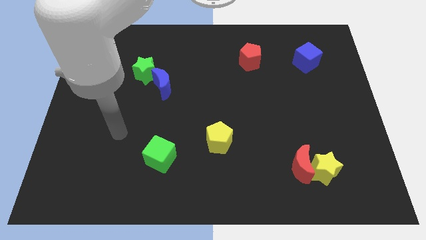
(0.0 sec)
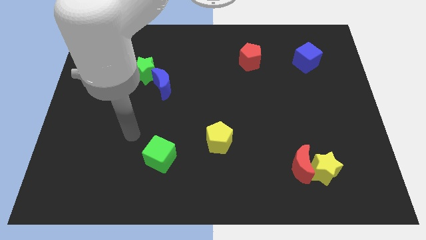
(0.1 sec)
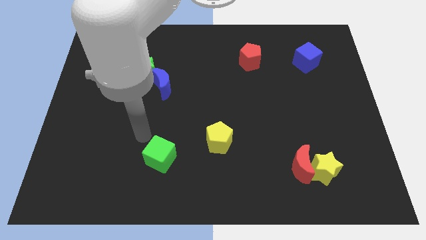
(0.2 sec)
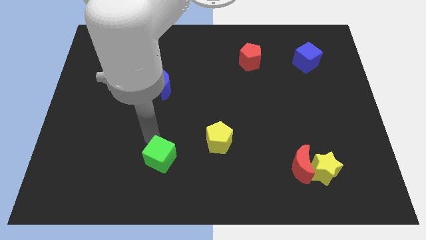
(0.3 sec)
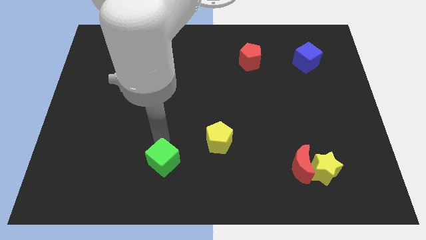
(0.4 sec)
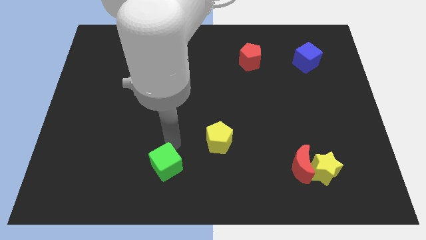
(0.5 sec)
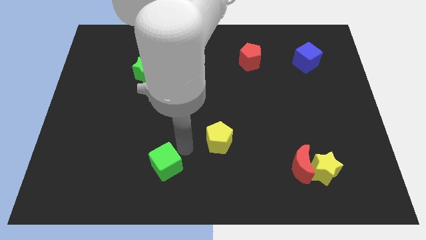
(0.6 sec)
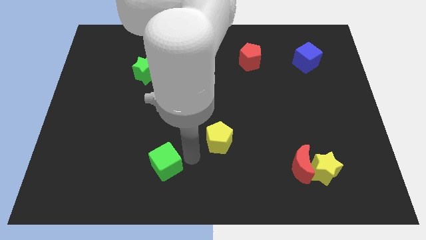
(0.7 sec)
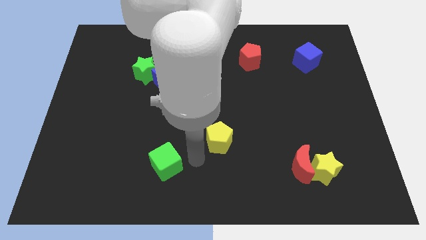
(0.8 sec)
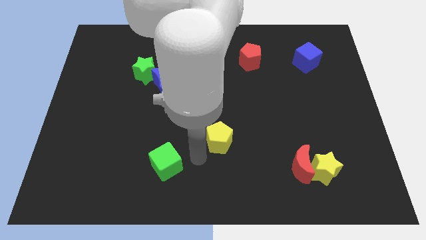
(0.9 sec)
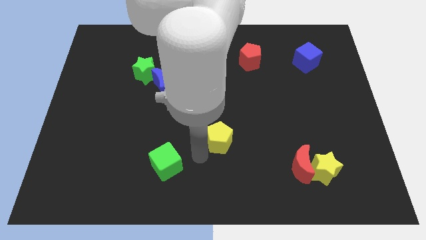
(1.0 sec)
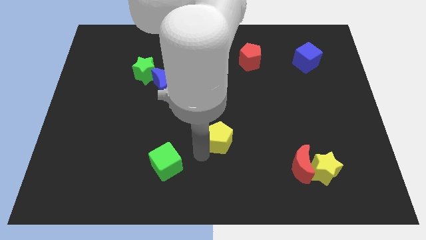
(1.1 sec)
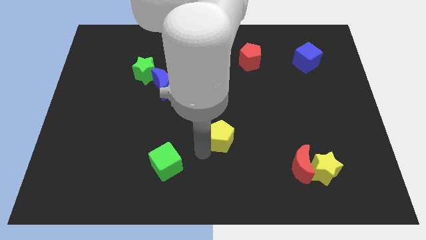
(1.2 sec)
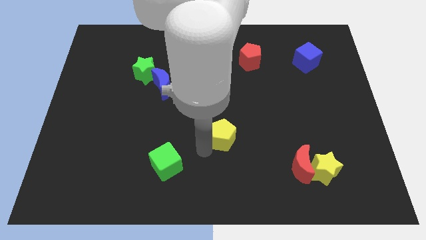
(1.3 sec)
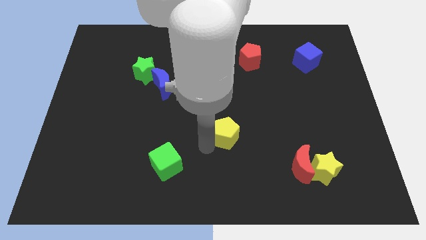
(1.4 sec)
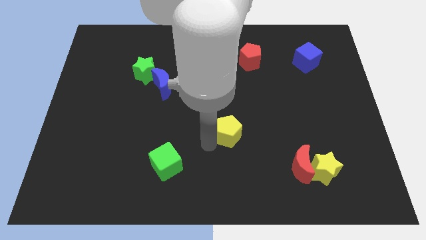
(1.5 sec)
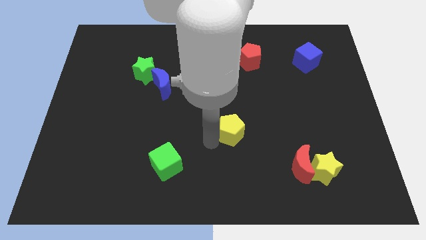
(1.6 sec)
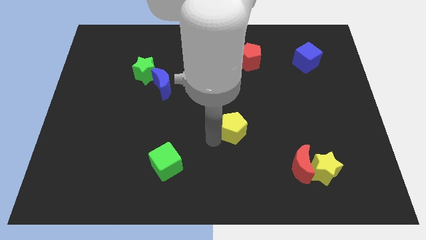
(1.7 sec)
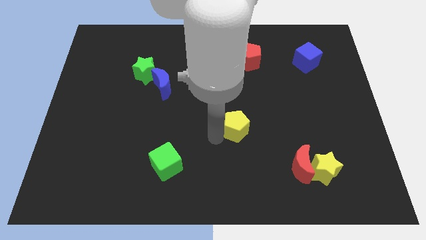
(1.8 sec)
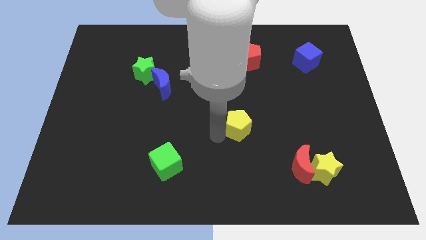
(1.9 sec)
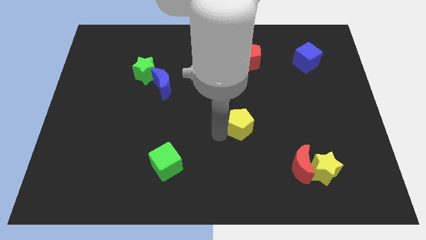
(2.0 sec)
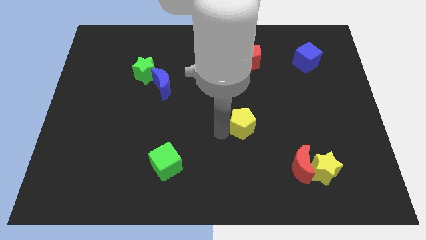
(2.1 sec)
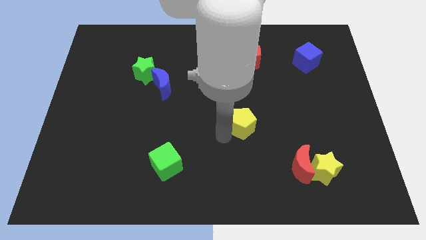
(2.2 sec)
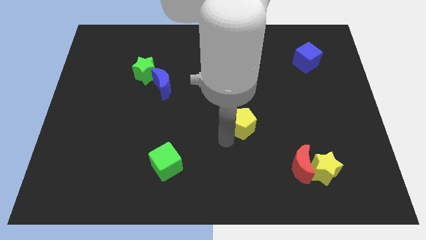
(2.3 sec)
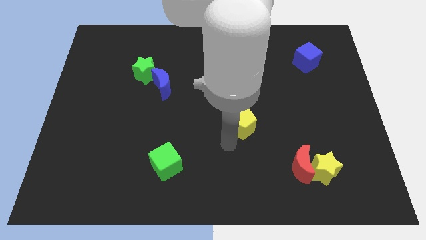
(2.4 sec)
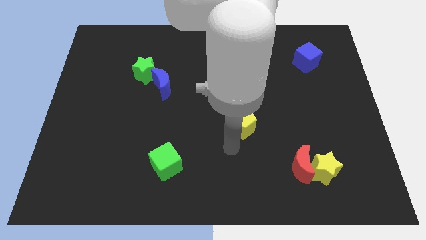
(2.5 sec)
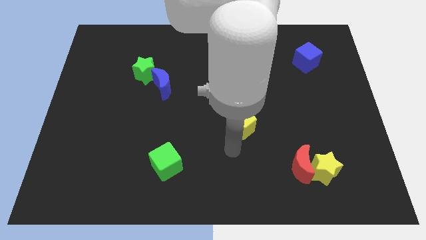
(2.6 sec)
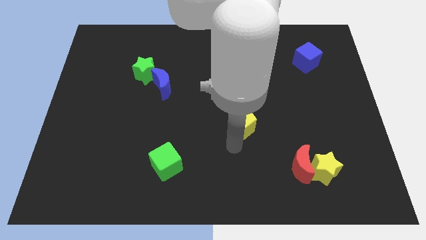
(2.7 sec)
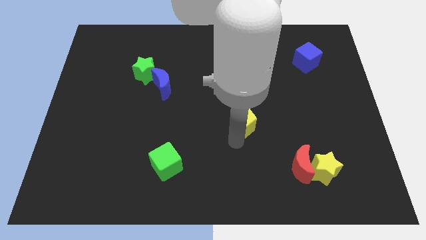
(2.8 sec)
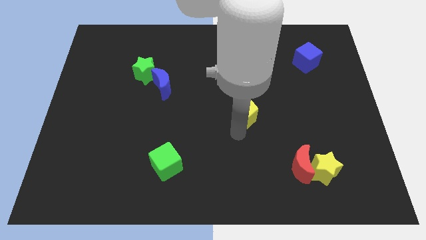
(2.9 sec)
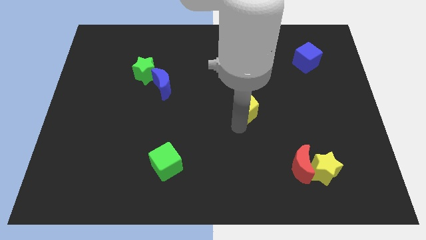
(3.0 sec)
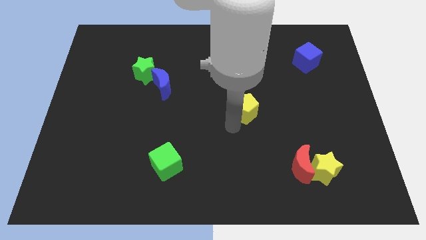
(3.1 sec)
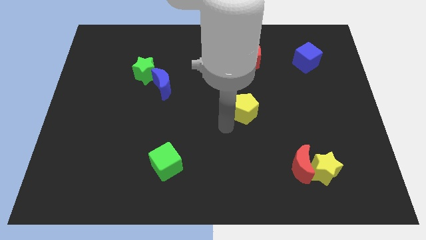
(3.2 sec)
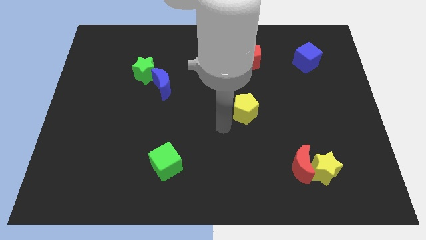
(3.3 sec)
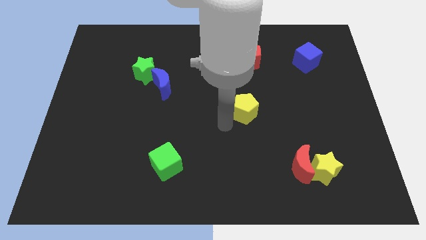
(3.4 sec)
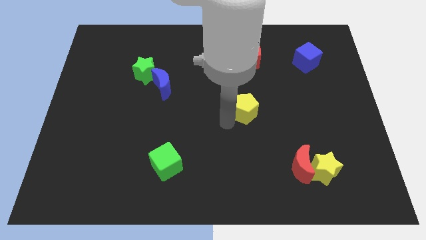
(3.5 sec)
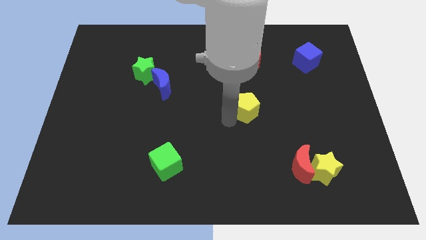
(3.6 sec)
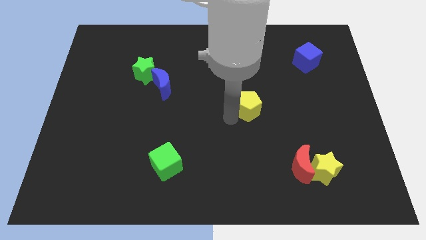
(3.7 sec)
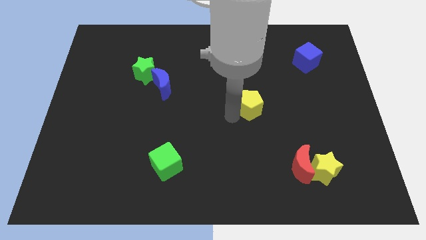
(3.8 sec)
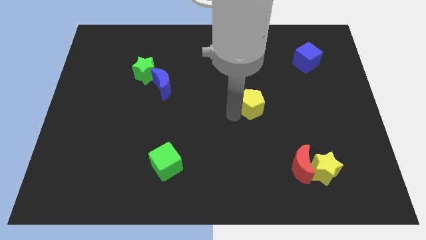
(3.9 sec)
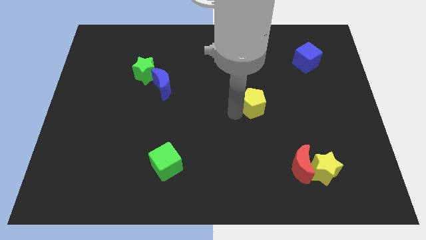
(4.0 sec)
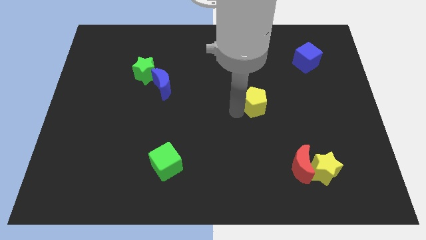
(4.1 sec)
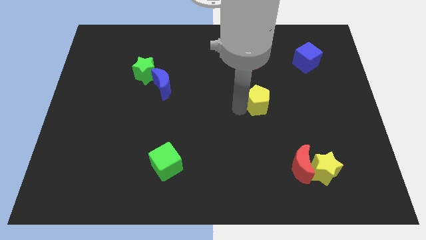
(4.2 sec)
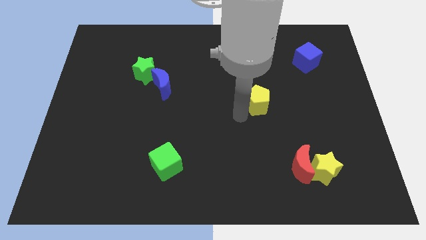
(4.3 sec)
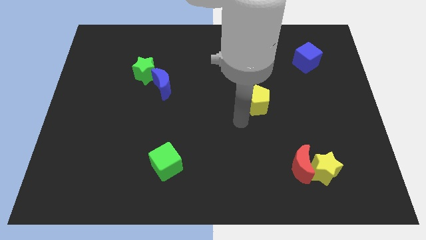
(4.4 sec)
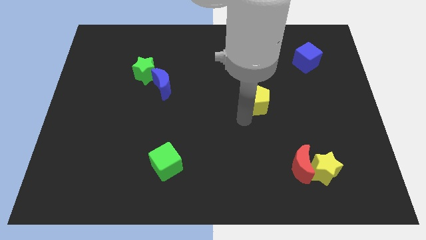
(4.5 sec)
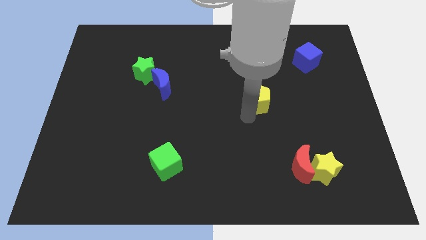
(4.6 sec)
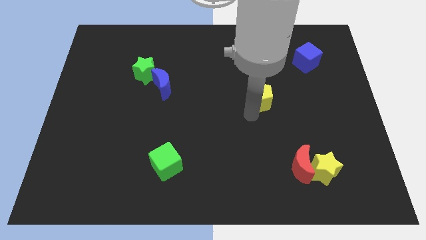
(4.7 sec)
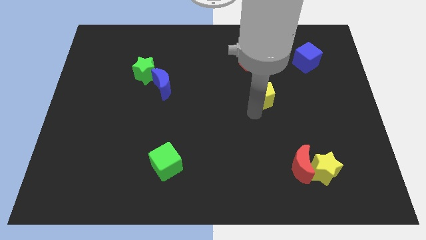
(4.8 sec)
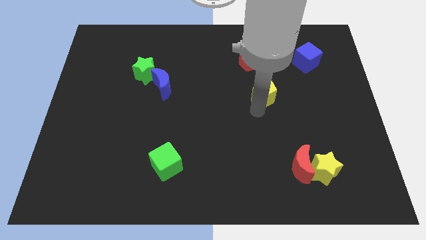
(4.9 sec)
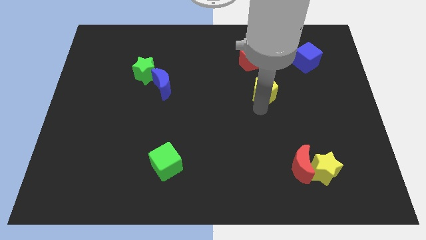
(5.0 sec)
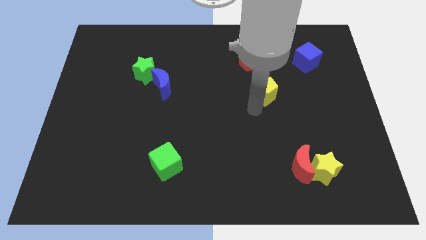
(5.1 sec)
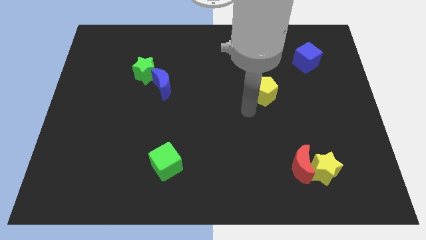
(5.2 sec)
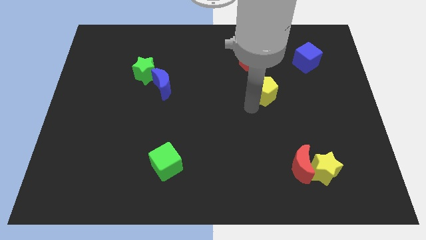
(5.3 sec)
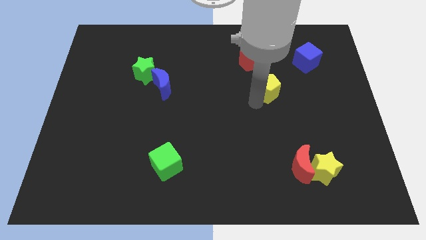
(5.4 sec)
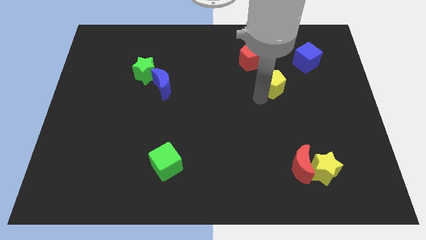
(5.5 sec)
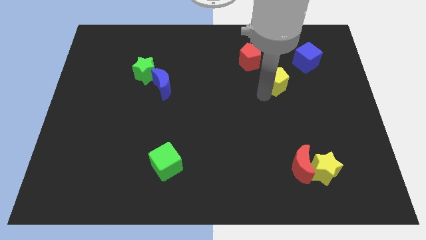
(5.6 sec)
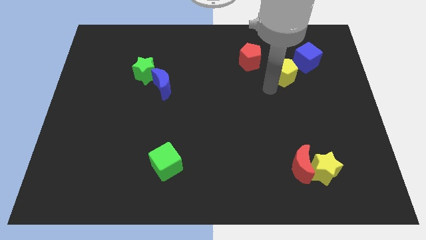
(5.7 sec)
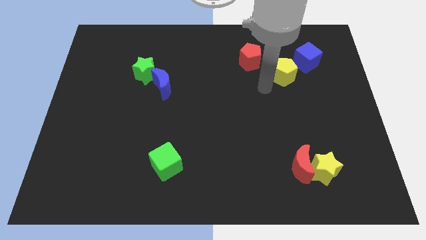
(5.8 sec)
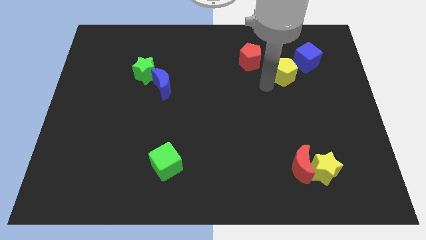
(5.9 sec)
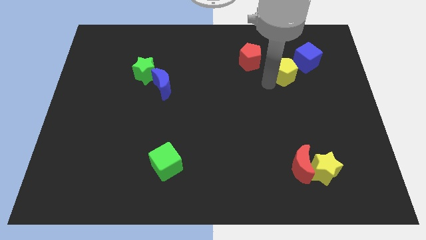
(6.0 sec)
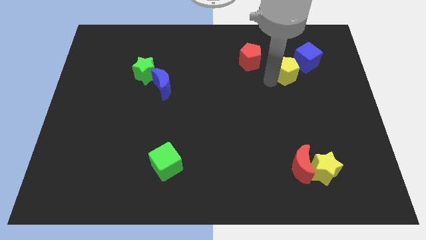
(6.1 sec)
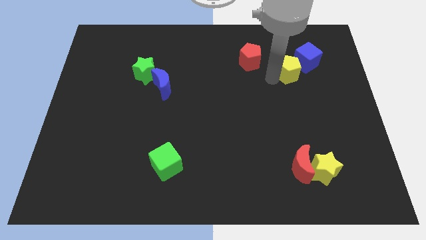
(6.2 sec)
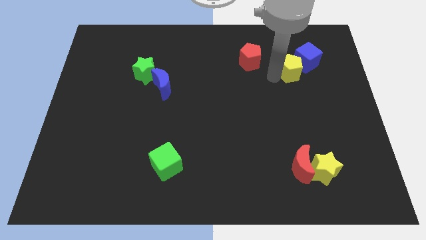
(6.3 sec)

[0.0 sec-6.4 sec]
put the yellow pentagon to the blue cube

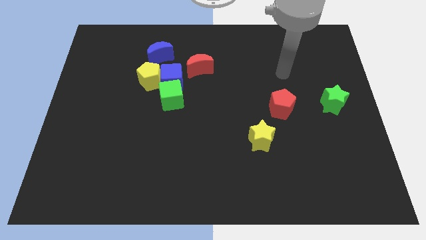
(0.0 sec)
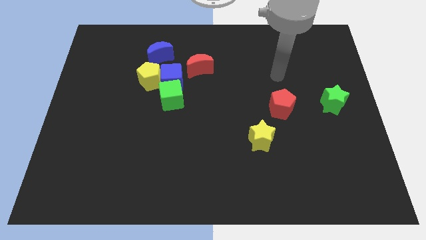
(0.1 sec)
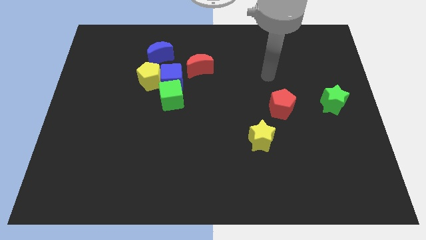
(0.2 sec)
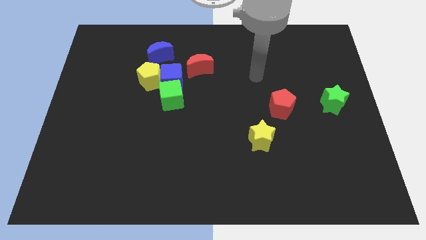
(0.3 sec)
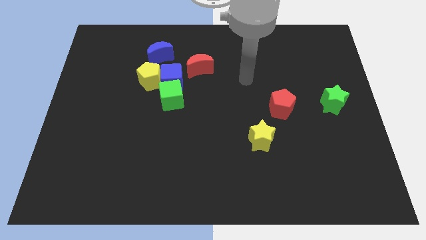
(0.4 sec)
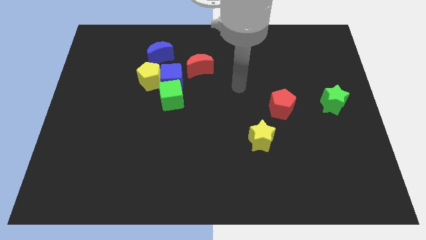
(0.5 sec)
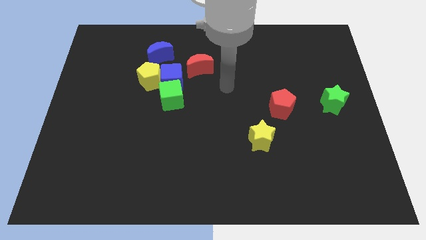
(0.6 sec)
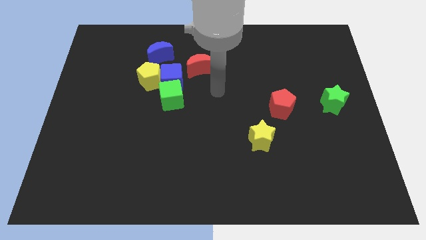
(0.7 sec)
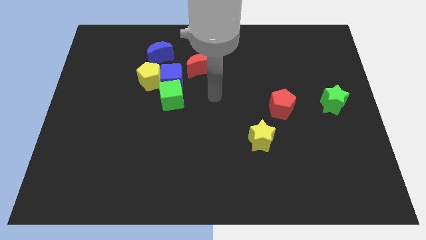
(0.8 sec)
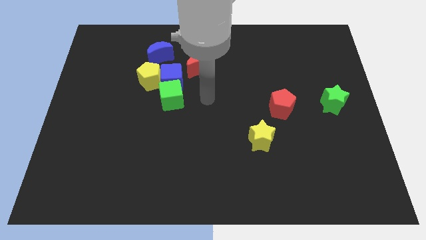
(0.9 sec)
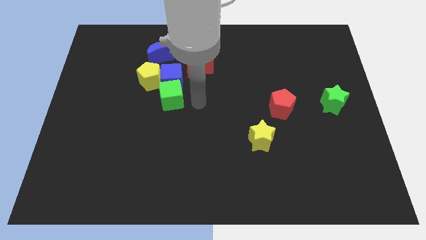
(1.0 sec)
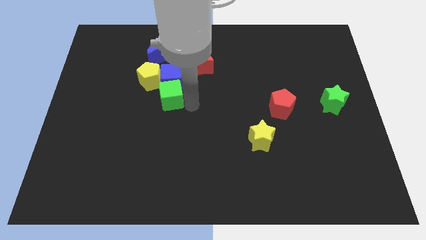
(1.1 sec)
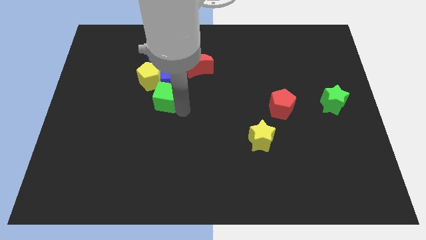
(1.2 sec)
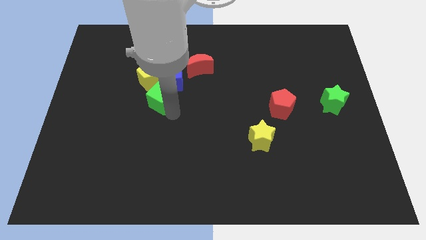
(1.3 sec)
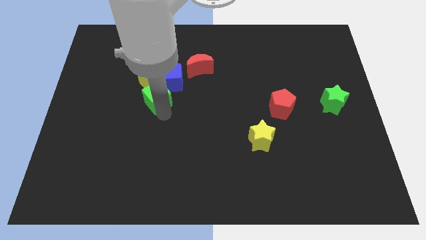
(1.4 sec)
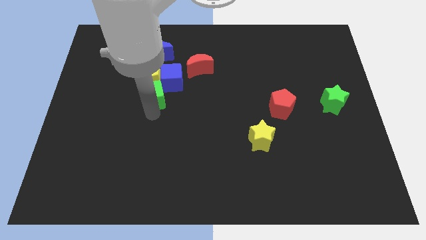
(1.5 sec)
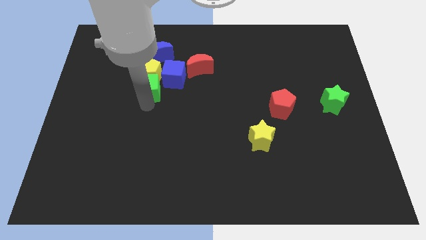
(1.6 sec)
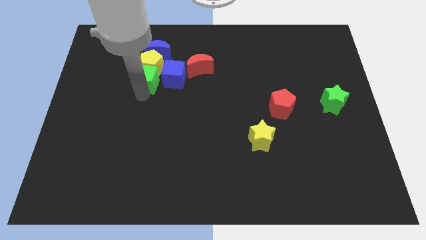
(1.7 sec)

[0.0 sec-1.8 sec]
push the yellow pentagon to the blue moon
